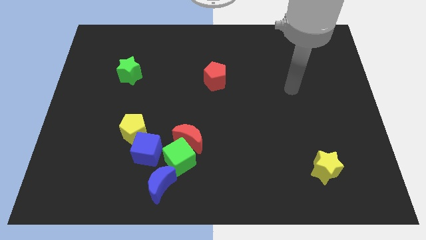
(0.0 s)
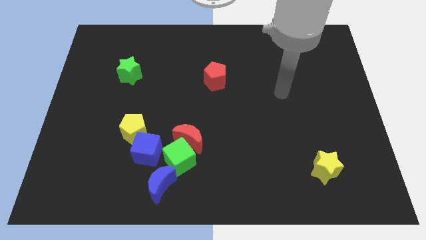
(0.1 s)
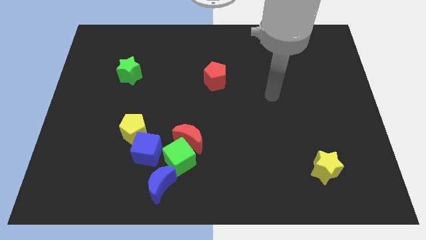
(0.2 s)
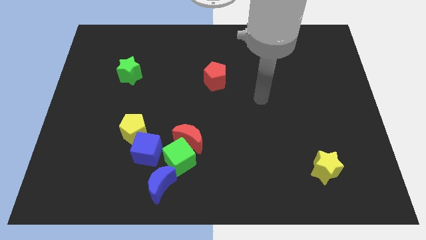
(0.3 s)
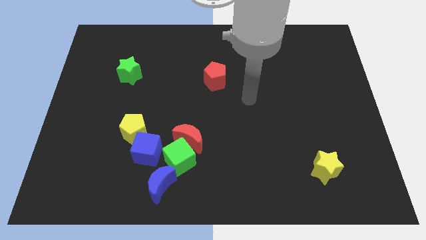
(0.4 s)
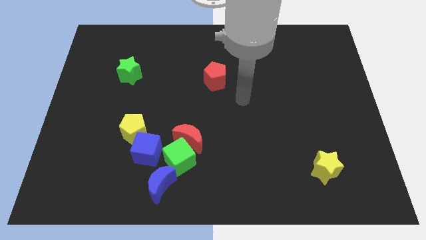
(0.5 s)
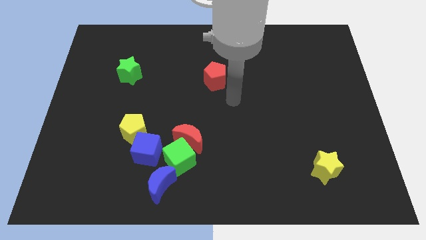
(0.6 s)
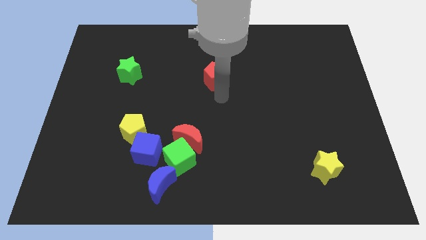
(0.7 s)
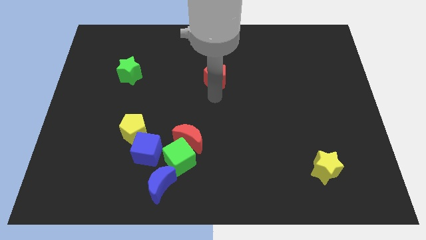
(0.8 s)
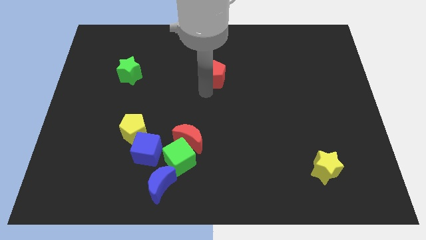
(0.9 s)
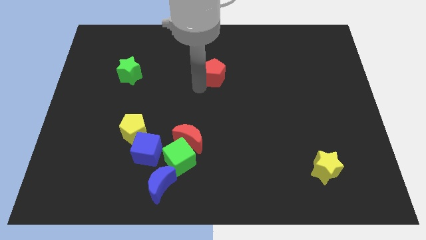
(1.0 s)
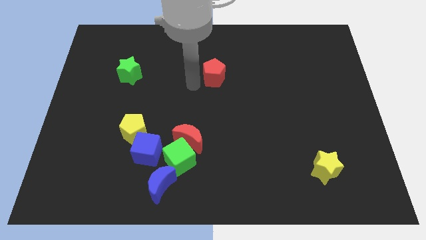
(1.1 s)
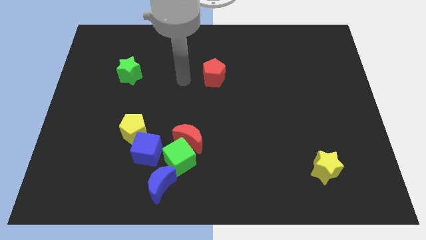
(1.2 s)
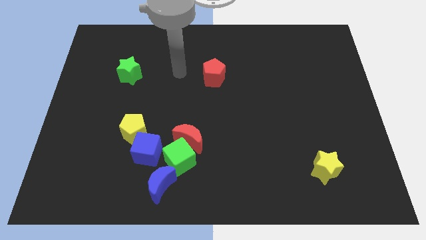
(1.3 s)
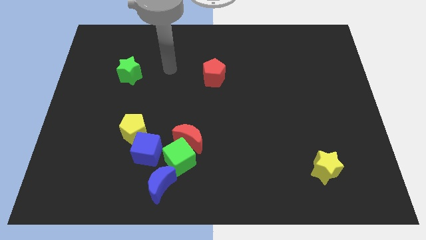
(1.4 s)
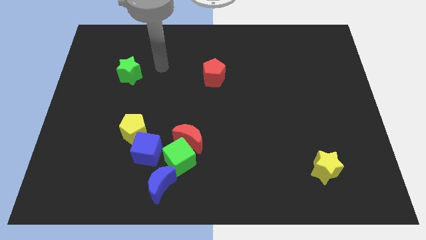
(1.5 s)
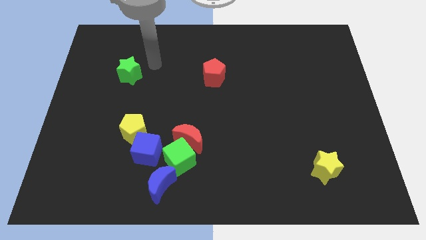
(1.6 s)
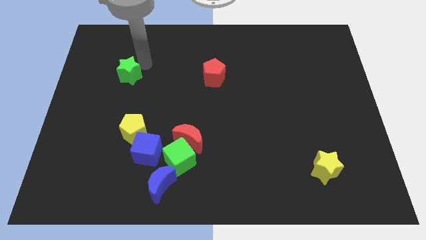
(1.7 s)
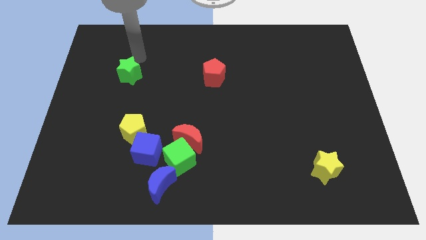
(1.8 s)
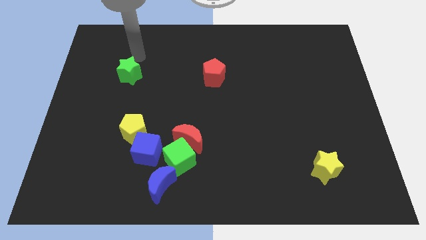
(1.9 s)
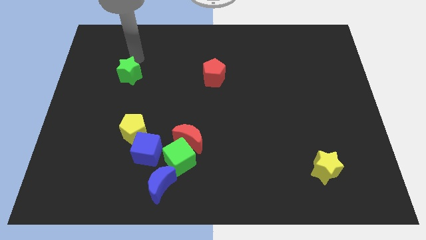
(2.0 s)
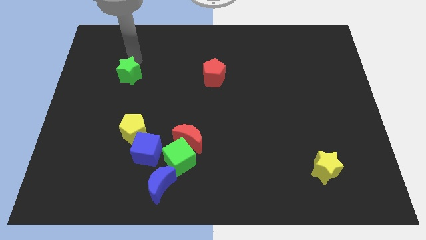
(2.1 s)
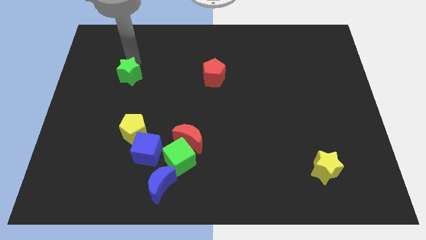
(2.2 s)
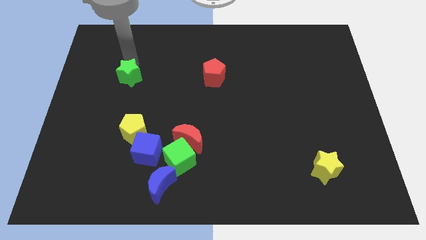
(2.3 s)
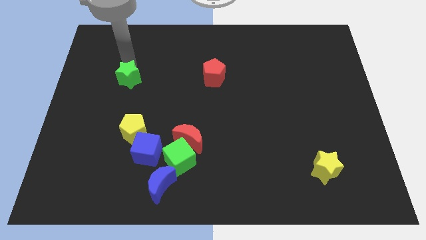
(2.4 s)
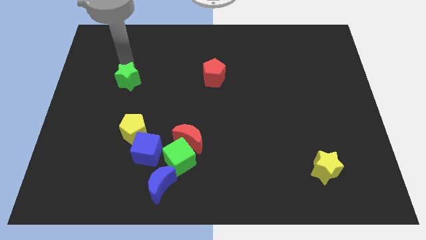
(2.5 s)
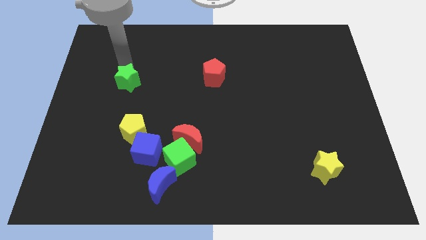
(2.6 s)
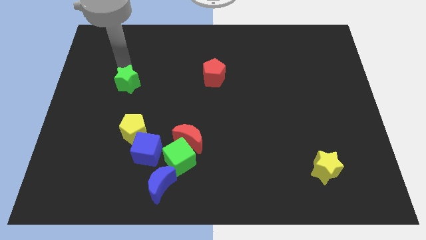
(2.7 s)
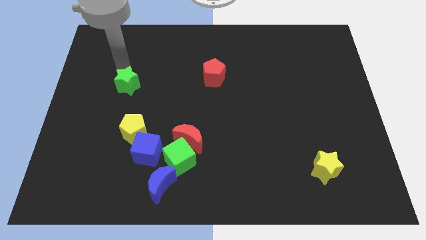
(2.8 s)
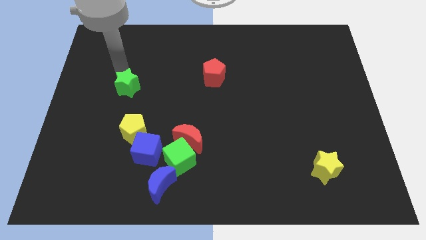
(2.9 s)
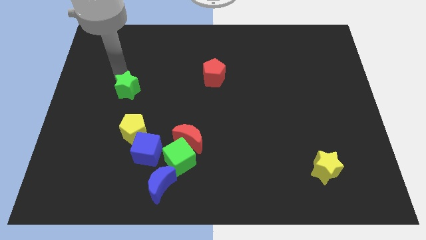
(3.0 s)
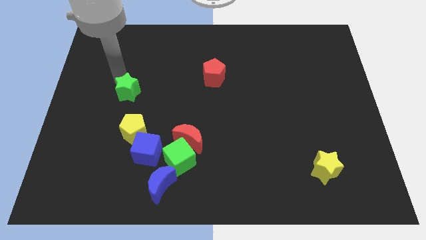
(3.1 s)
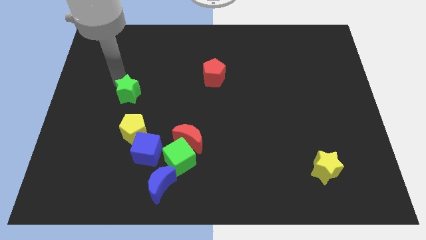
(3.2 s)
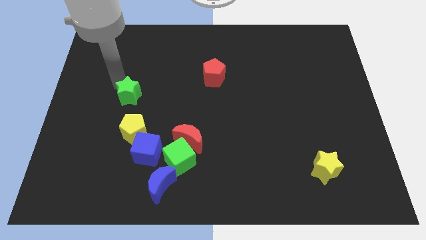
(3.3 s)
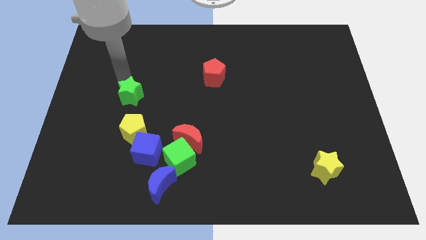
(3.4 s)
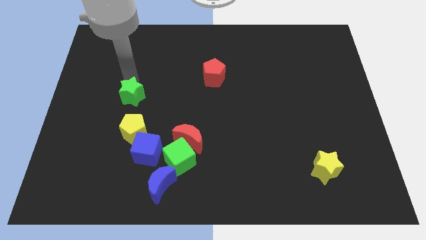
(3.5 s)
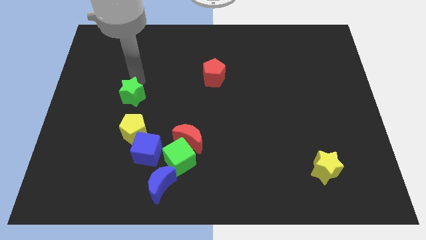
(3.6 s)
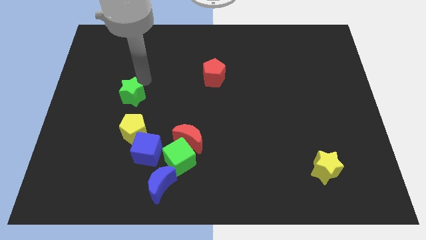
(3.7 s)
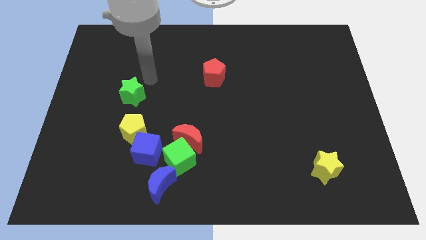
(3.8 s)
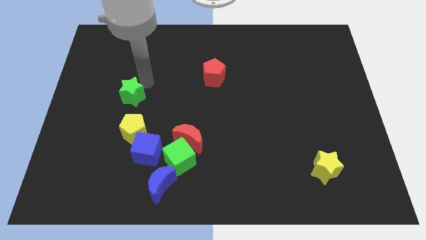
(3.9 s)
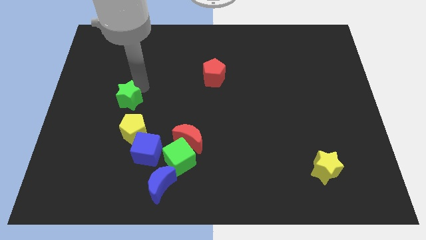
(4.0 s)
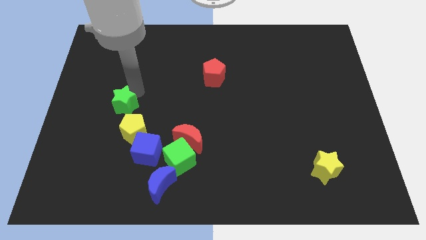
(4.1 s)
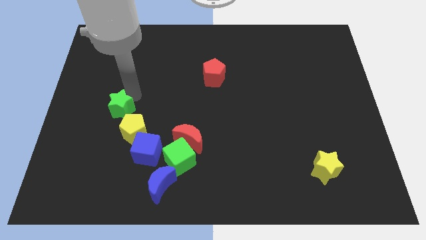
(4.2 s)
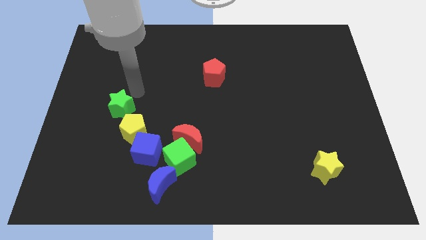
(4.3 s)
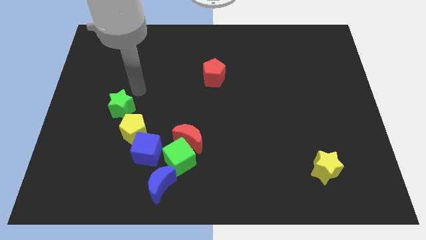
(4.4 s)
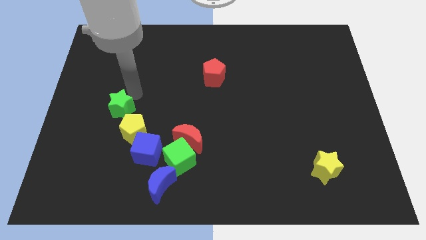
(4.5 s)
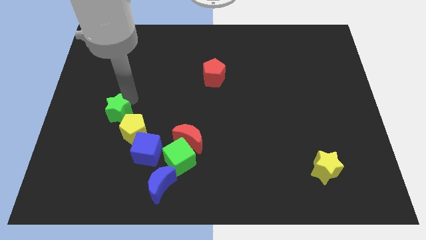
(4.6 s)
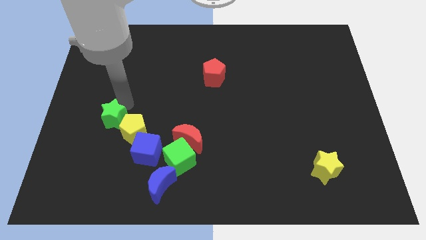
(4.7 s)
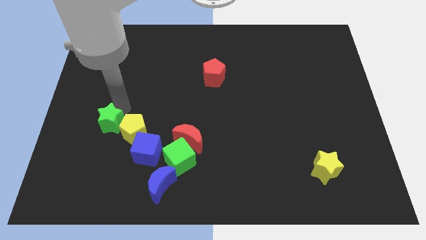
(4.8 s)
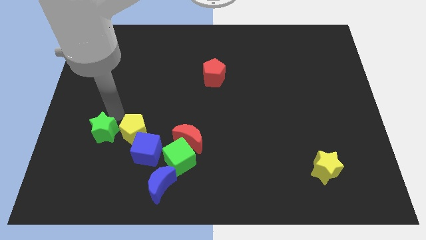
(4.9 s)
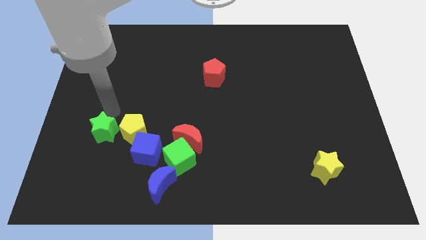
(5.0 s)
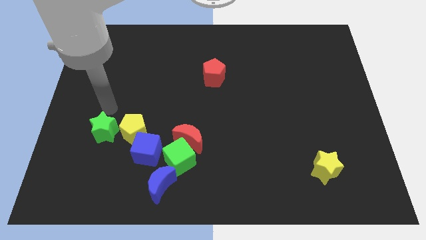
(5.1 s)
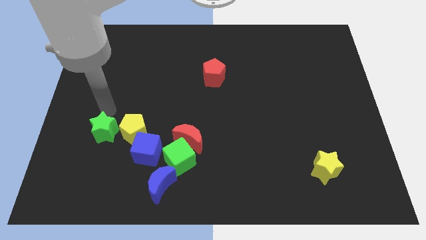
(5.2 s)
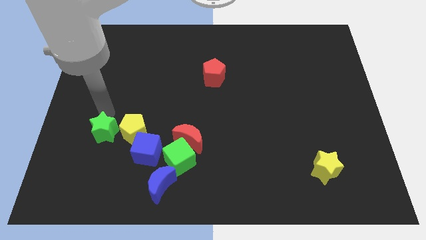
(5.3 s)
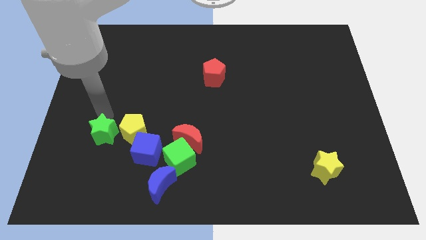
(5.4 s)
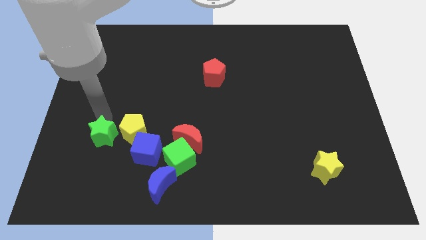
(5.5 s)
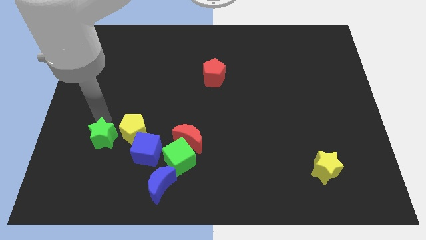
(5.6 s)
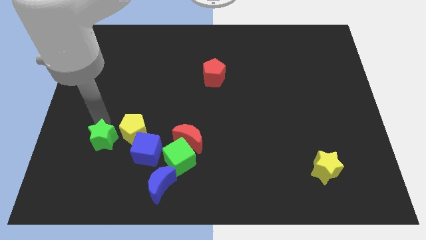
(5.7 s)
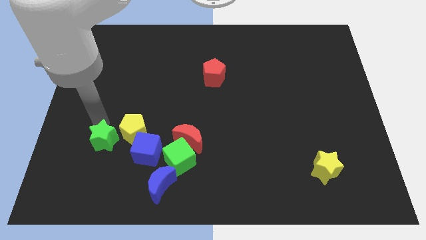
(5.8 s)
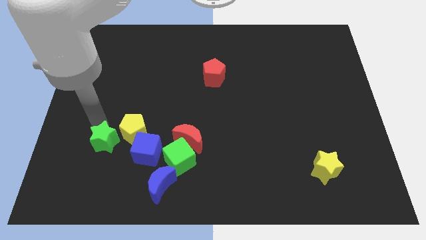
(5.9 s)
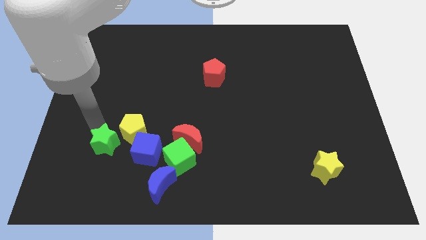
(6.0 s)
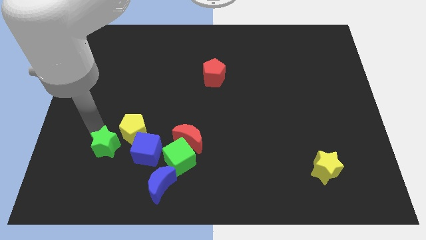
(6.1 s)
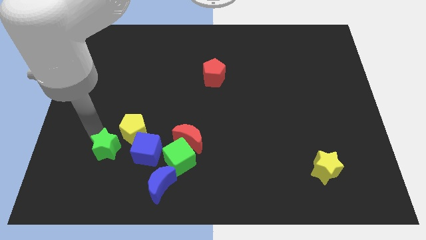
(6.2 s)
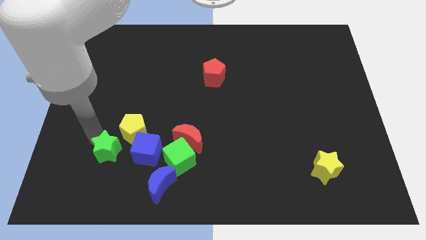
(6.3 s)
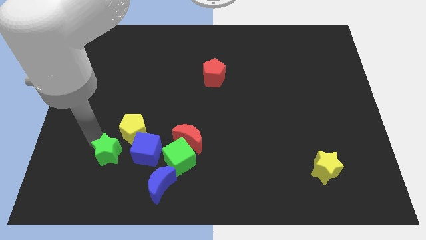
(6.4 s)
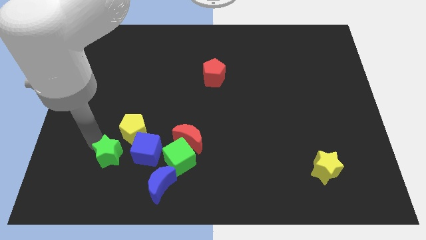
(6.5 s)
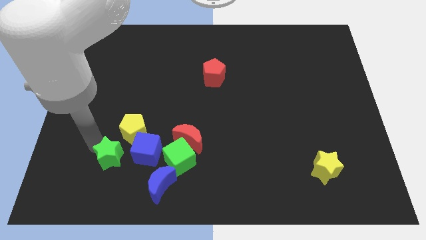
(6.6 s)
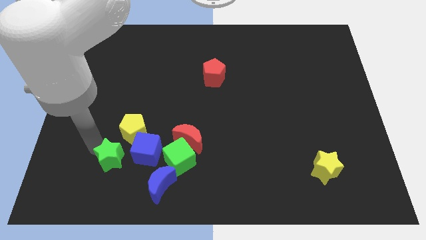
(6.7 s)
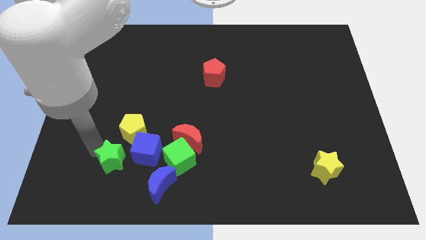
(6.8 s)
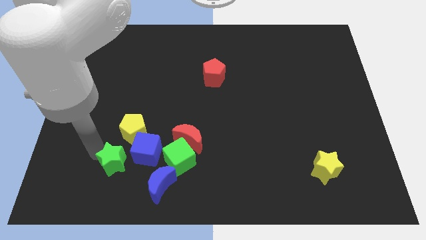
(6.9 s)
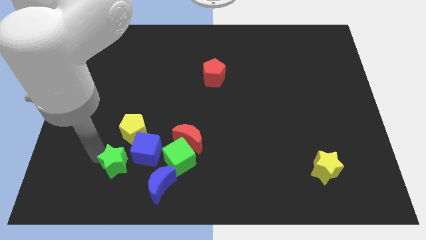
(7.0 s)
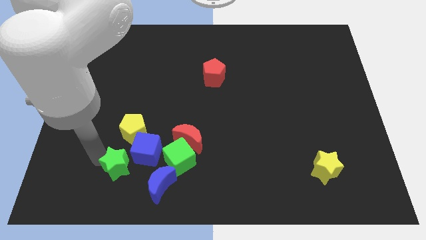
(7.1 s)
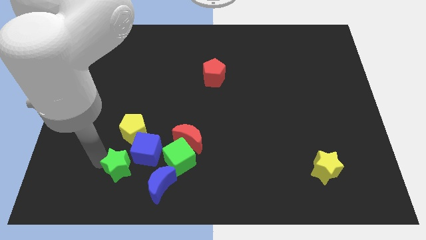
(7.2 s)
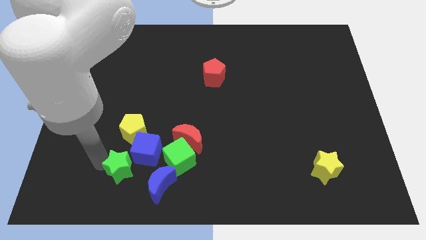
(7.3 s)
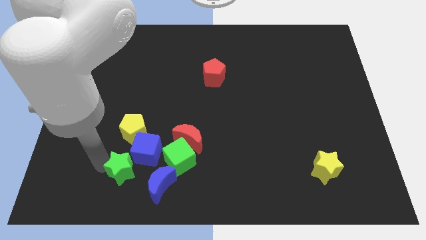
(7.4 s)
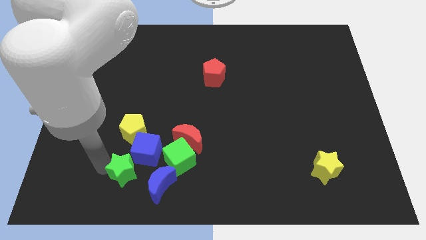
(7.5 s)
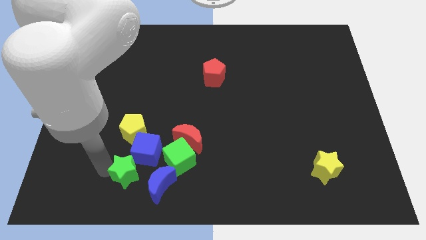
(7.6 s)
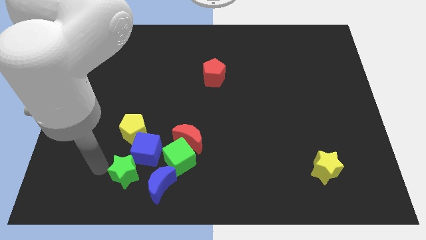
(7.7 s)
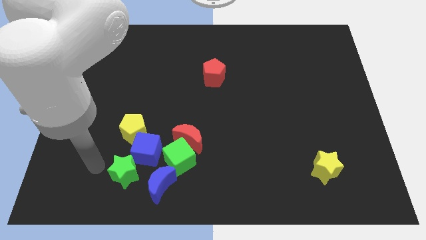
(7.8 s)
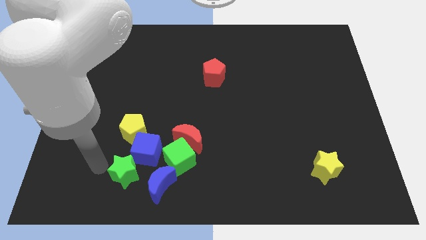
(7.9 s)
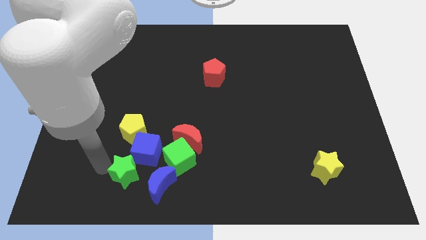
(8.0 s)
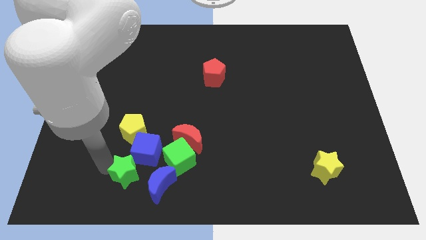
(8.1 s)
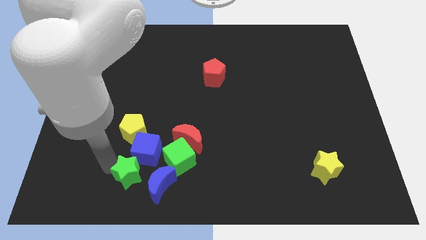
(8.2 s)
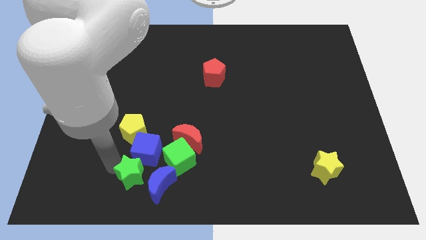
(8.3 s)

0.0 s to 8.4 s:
push the green star to the bottom left side of the green cube
